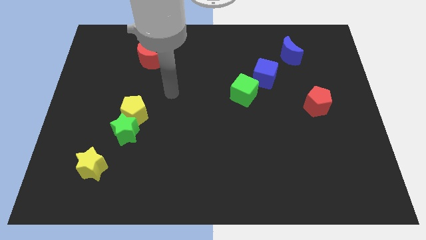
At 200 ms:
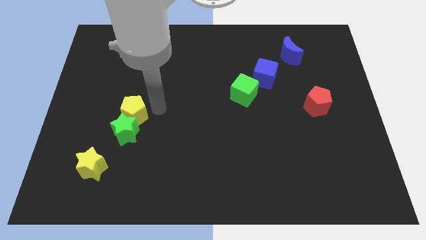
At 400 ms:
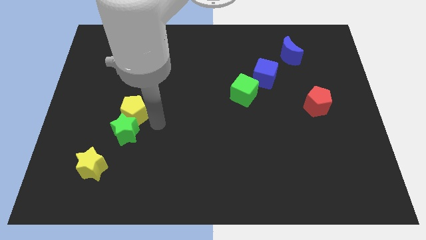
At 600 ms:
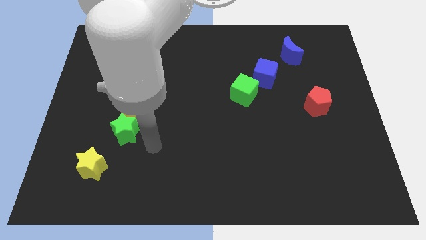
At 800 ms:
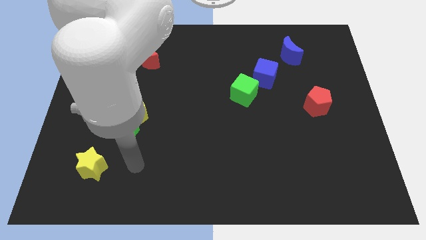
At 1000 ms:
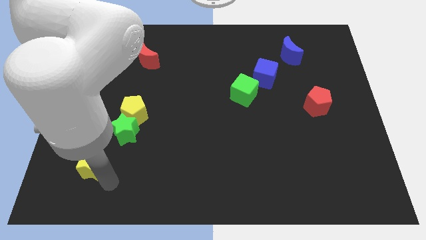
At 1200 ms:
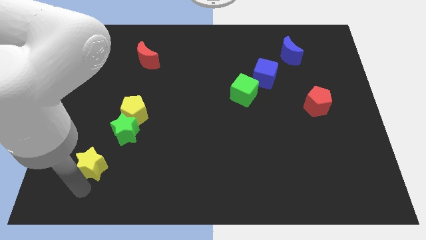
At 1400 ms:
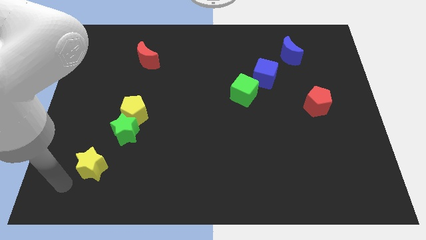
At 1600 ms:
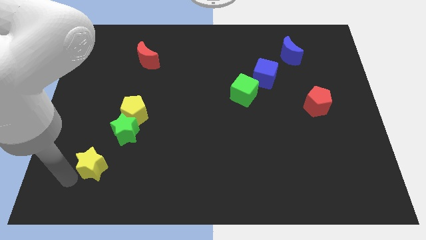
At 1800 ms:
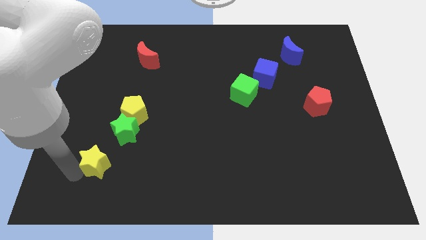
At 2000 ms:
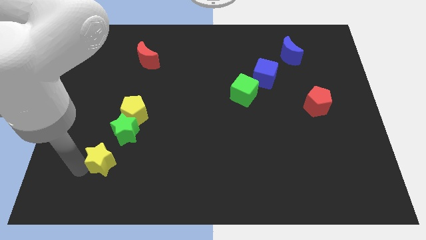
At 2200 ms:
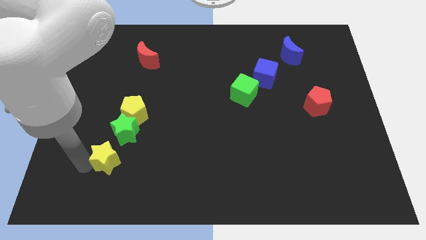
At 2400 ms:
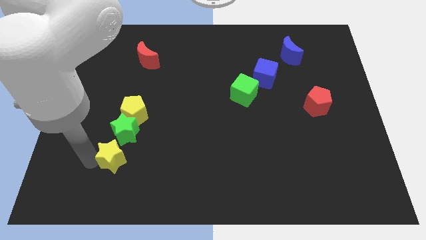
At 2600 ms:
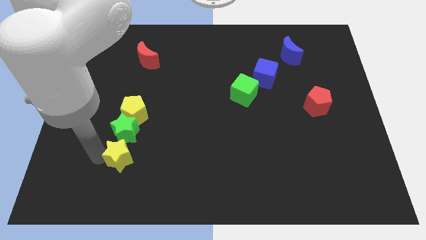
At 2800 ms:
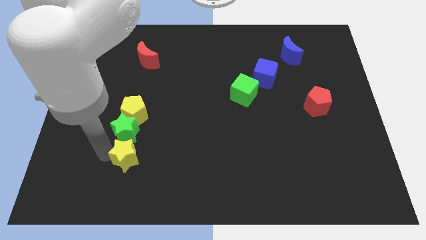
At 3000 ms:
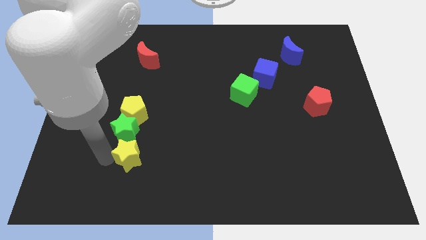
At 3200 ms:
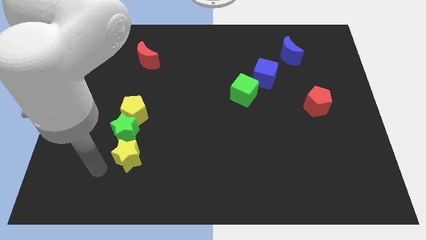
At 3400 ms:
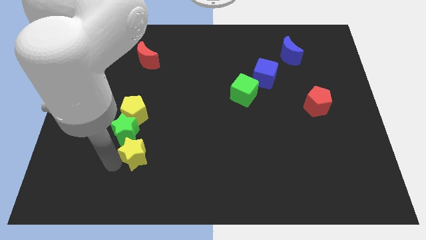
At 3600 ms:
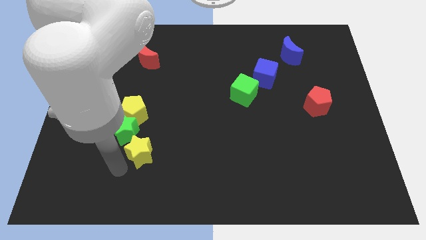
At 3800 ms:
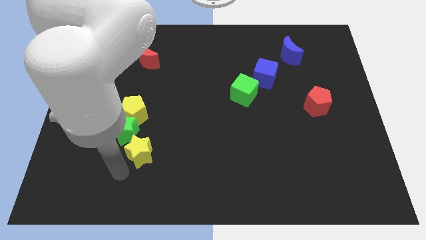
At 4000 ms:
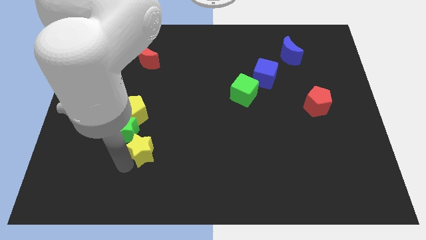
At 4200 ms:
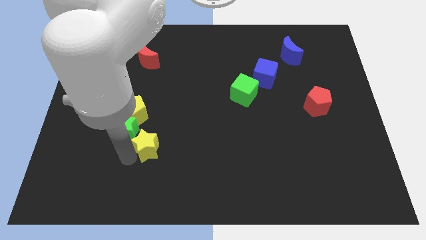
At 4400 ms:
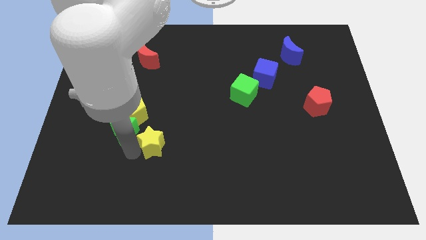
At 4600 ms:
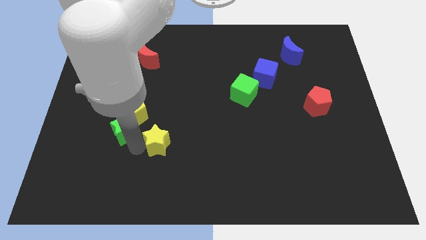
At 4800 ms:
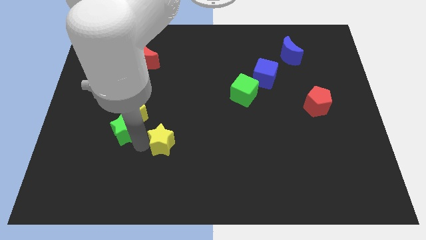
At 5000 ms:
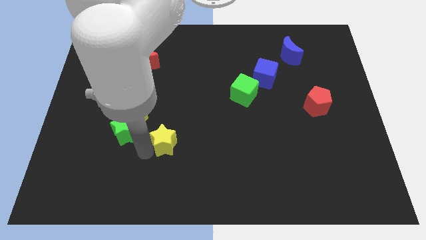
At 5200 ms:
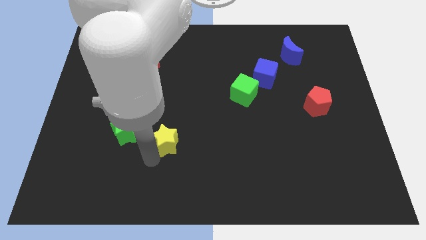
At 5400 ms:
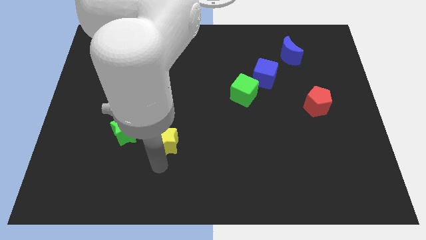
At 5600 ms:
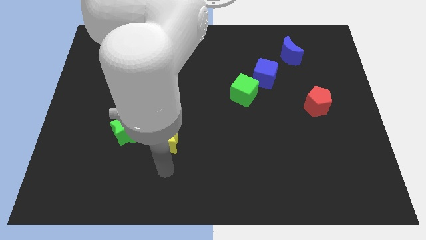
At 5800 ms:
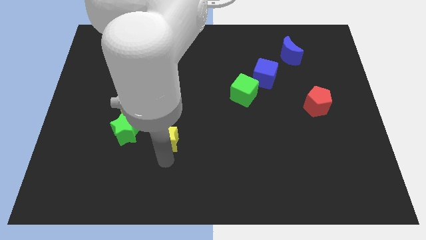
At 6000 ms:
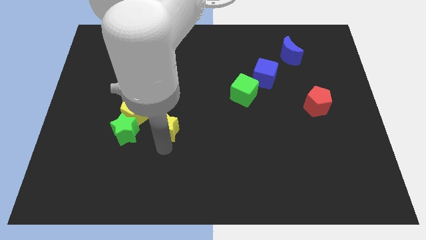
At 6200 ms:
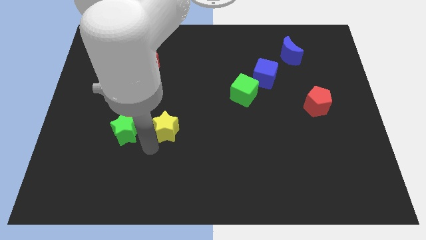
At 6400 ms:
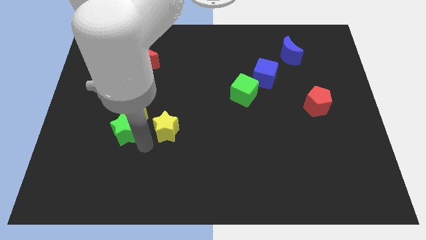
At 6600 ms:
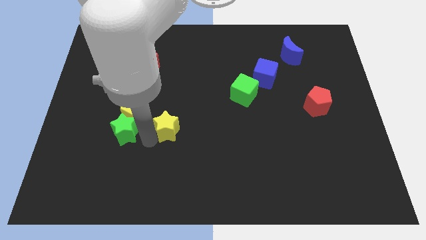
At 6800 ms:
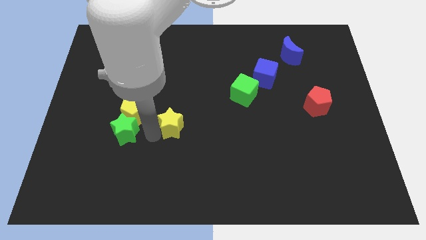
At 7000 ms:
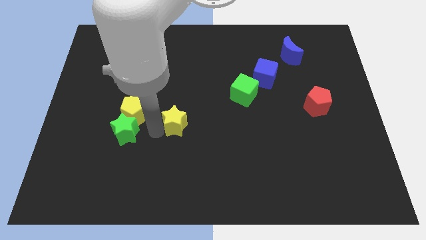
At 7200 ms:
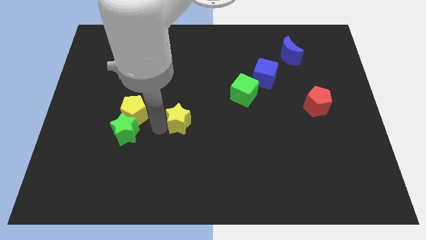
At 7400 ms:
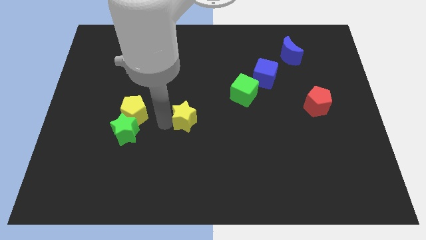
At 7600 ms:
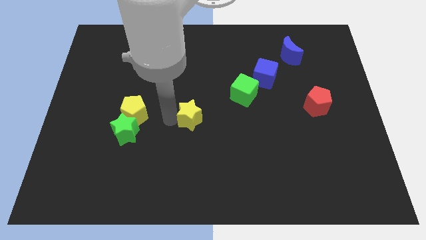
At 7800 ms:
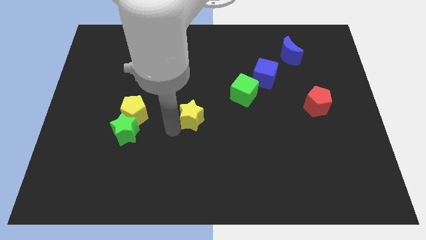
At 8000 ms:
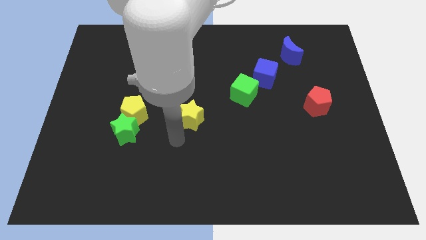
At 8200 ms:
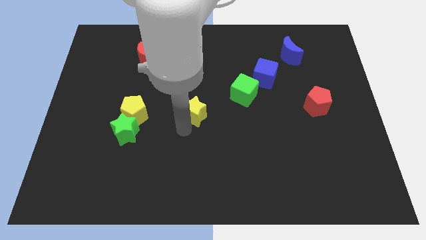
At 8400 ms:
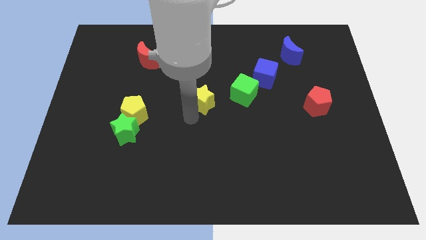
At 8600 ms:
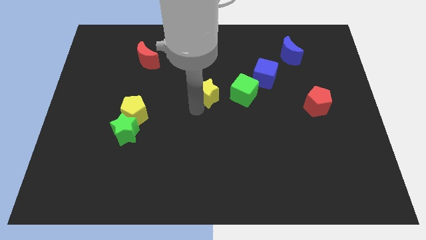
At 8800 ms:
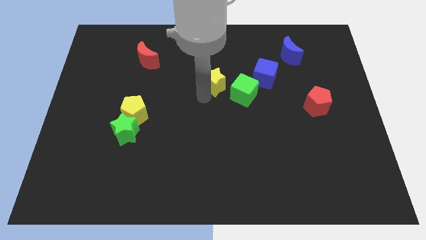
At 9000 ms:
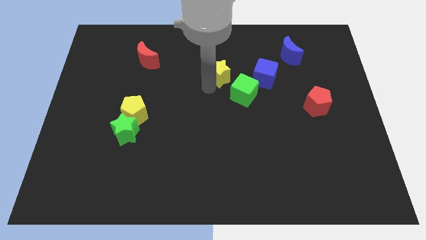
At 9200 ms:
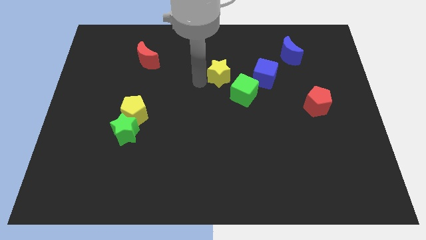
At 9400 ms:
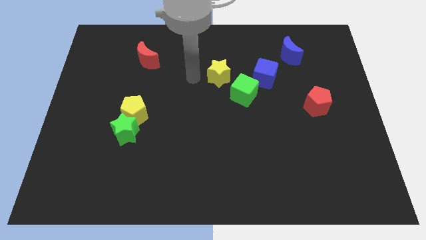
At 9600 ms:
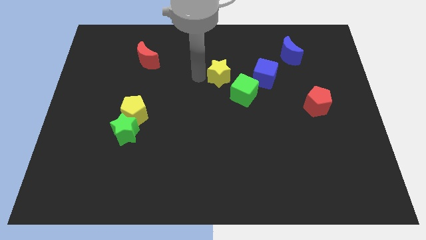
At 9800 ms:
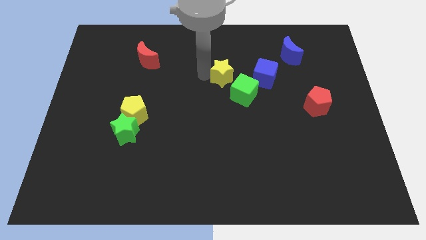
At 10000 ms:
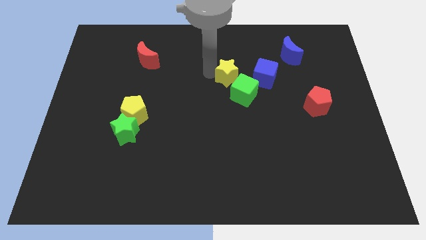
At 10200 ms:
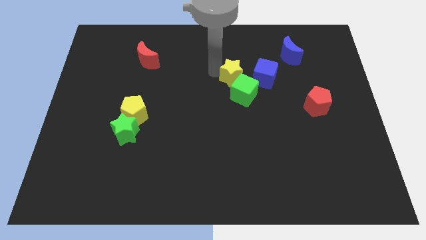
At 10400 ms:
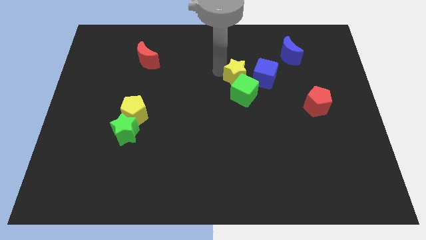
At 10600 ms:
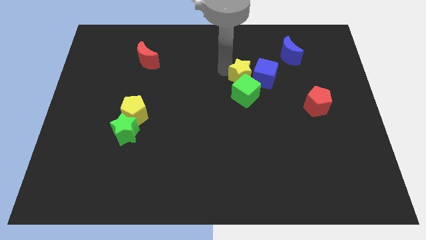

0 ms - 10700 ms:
slide the yellow star next to the blue cube

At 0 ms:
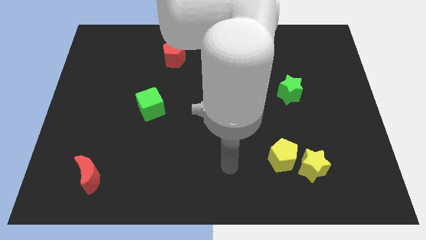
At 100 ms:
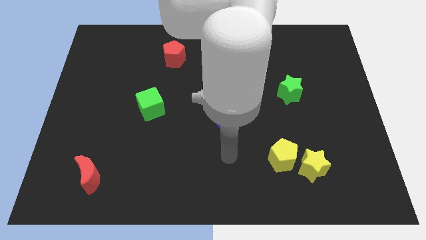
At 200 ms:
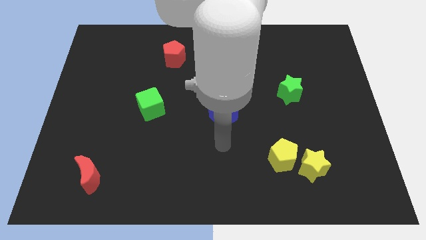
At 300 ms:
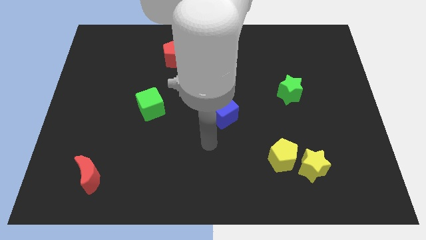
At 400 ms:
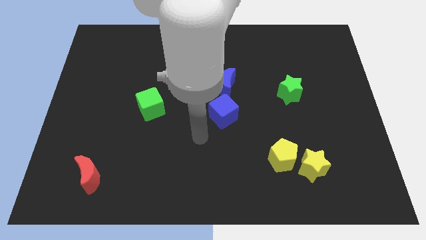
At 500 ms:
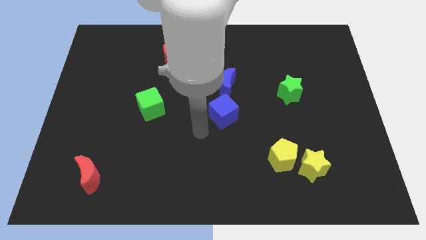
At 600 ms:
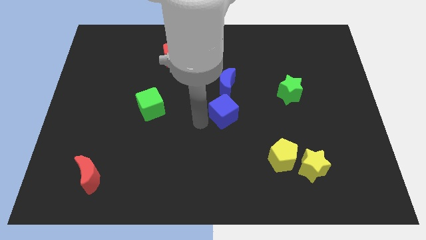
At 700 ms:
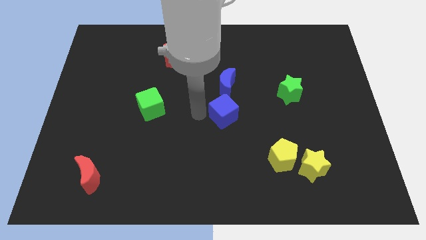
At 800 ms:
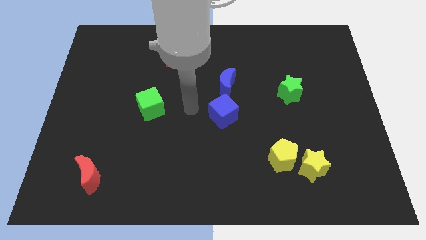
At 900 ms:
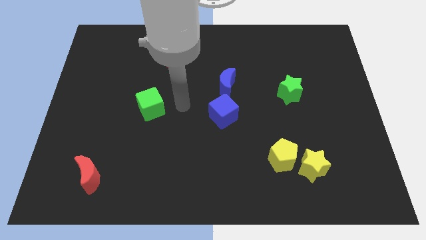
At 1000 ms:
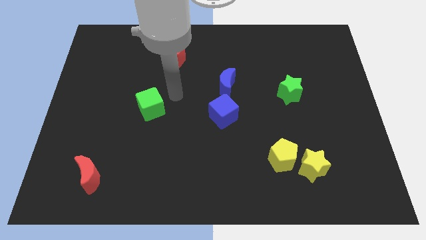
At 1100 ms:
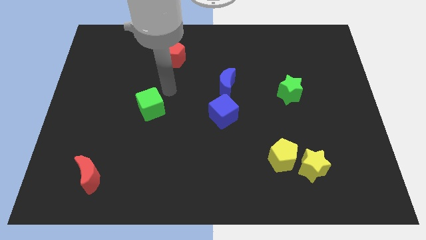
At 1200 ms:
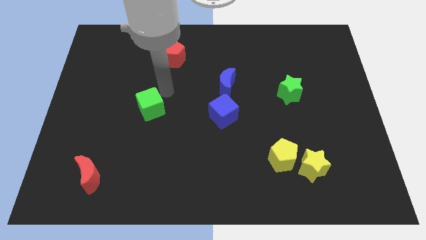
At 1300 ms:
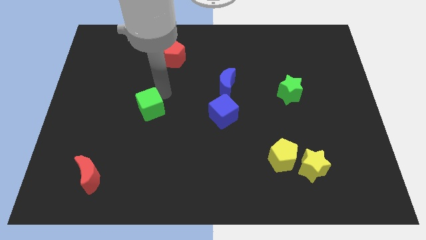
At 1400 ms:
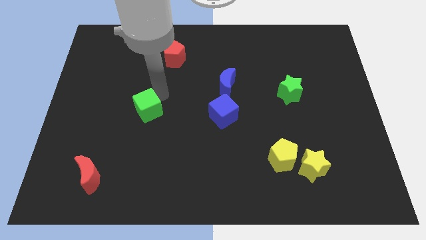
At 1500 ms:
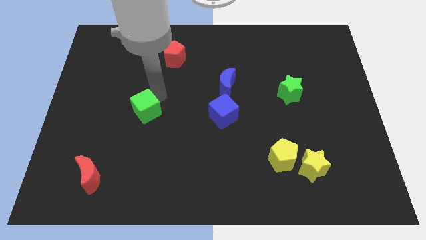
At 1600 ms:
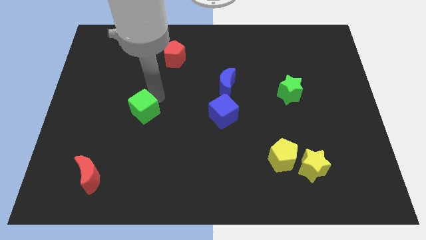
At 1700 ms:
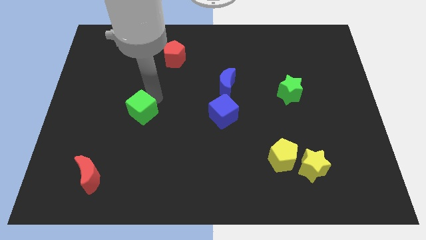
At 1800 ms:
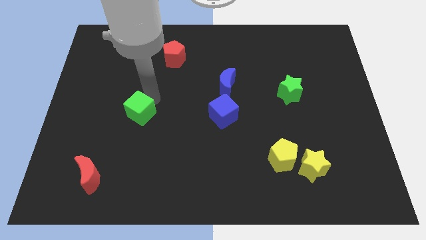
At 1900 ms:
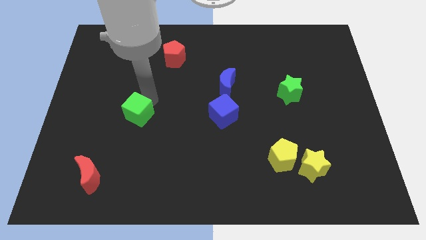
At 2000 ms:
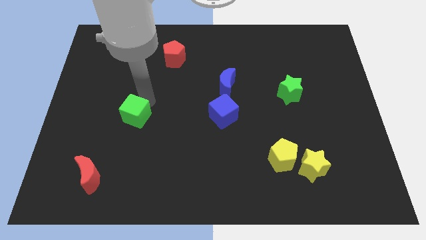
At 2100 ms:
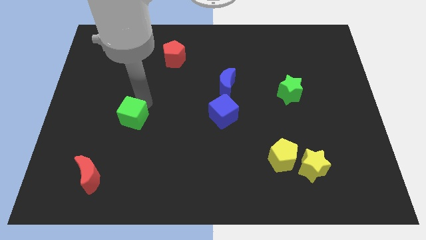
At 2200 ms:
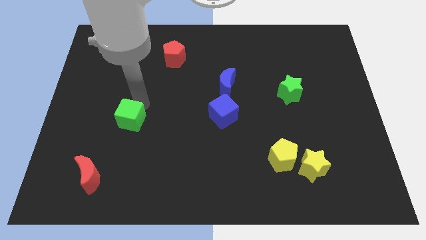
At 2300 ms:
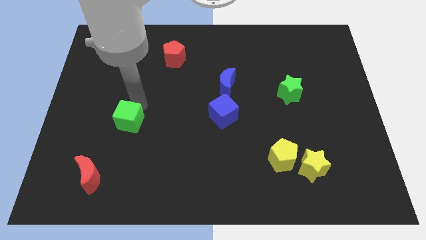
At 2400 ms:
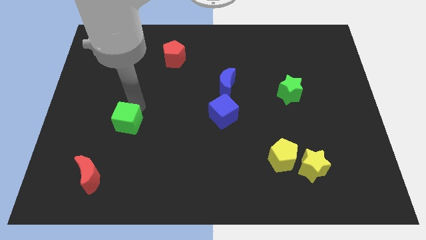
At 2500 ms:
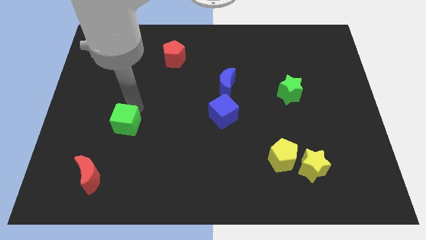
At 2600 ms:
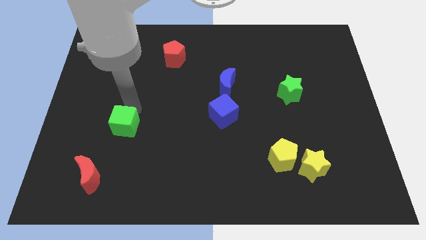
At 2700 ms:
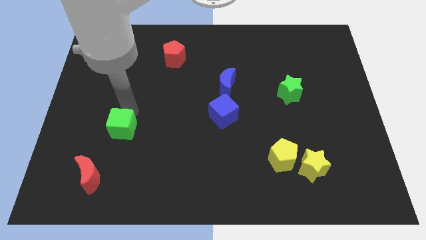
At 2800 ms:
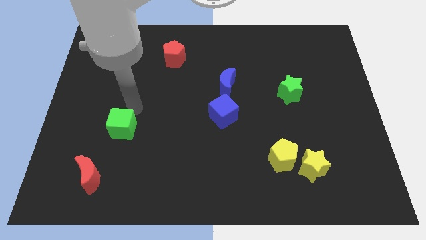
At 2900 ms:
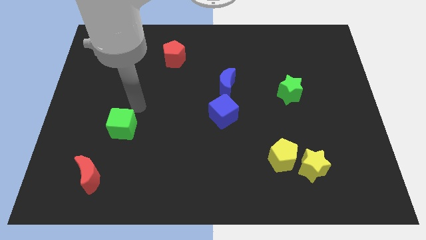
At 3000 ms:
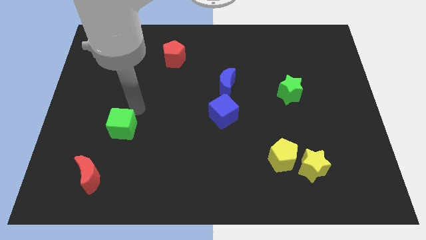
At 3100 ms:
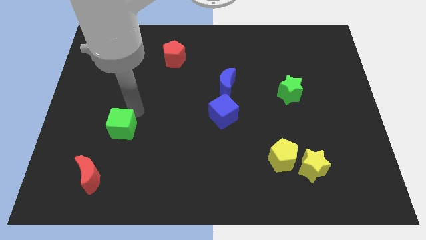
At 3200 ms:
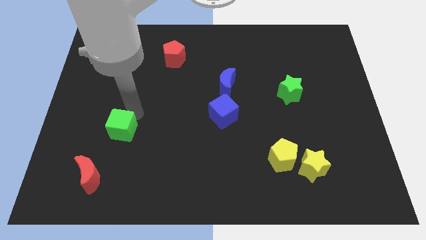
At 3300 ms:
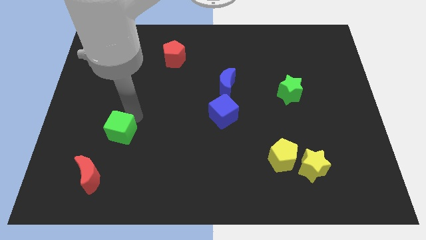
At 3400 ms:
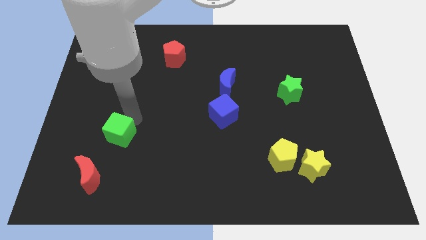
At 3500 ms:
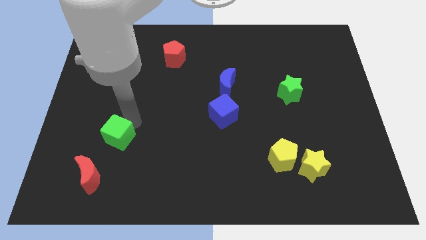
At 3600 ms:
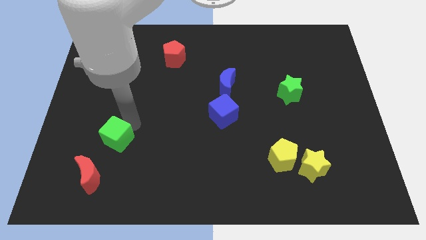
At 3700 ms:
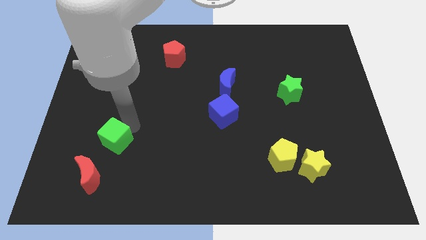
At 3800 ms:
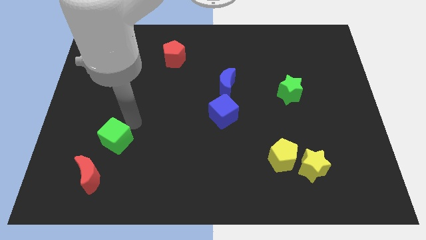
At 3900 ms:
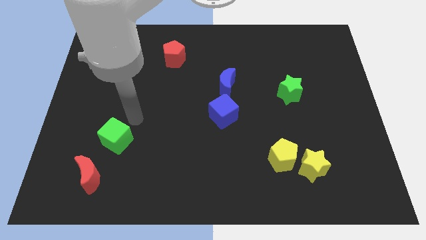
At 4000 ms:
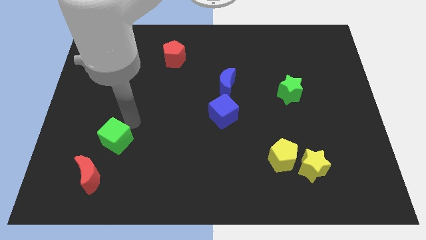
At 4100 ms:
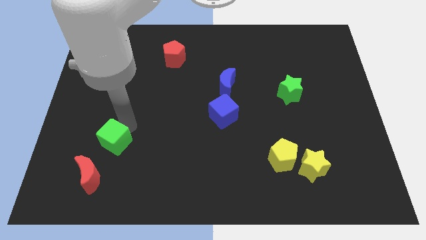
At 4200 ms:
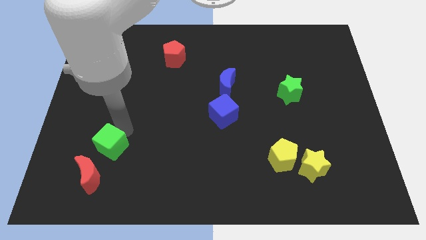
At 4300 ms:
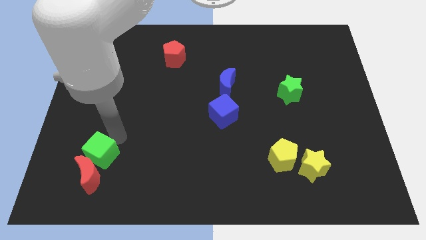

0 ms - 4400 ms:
put the green cube close to the red moon
